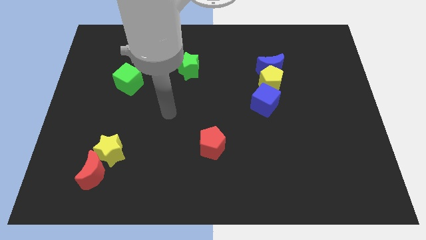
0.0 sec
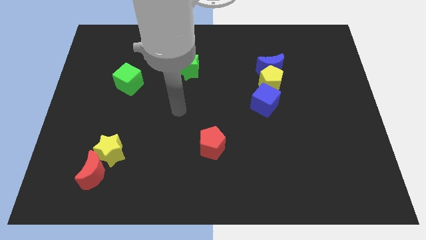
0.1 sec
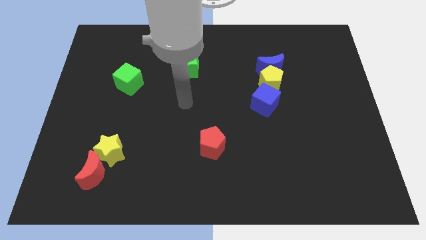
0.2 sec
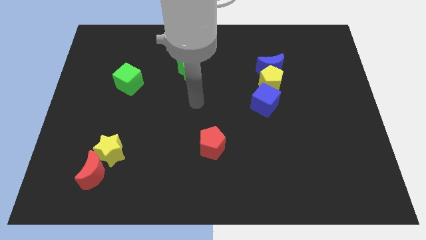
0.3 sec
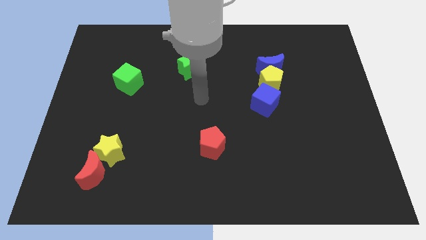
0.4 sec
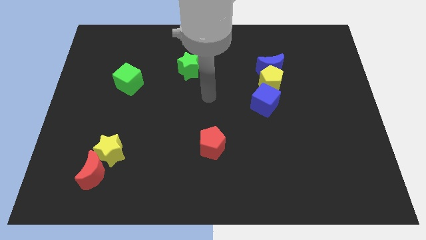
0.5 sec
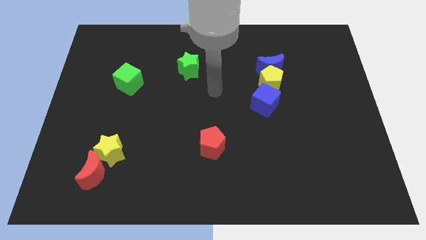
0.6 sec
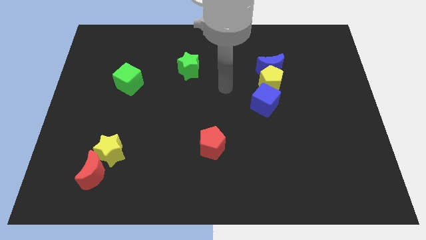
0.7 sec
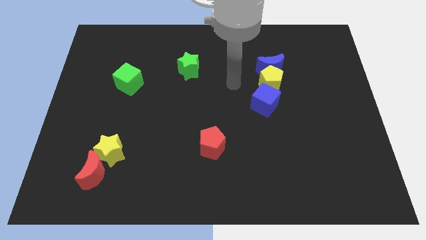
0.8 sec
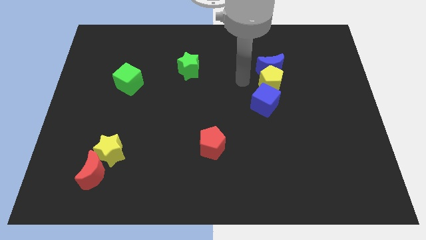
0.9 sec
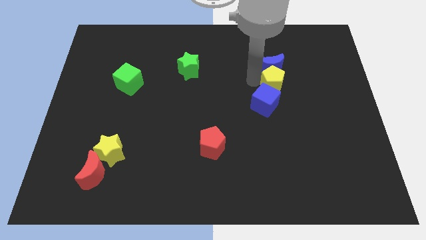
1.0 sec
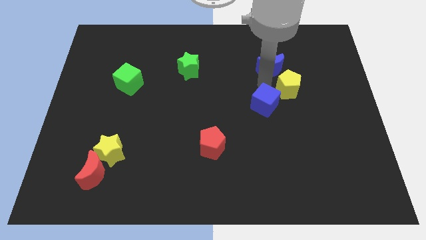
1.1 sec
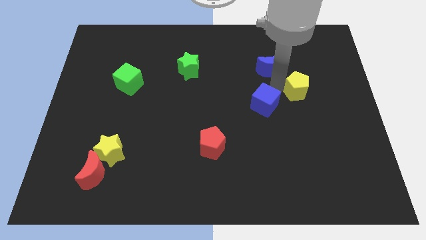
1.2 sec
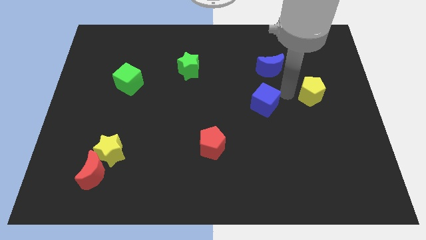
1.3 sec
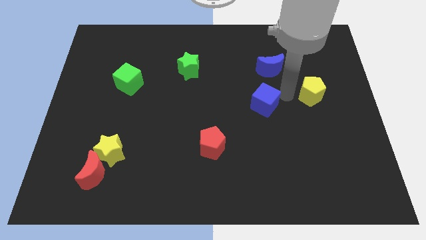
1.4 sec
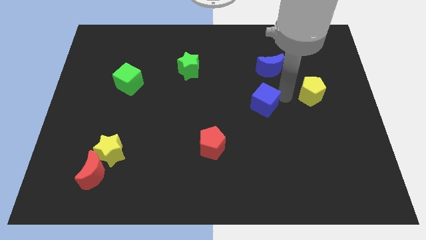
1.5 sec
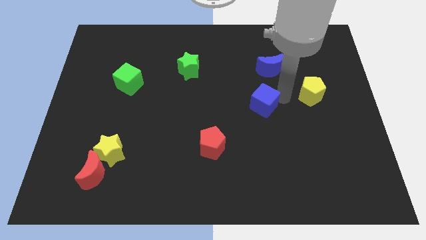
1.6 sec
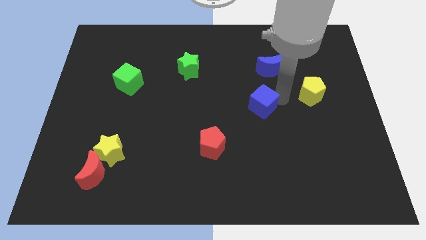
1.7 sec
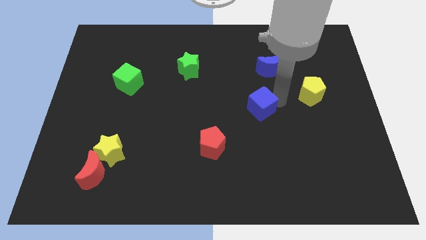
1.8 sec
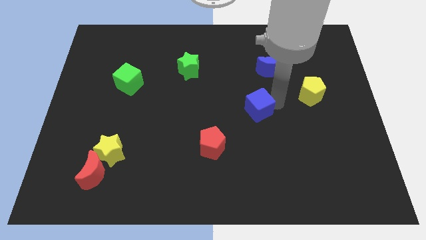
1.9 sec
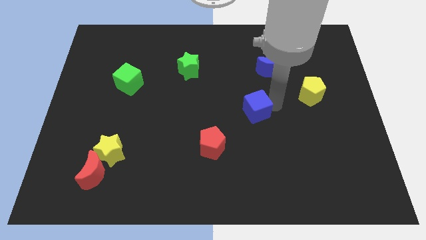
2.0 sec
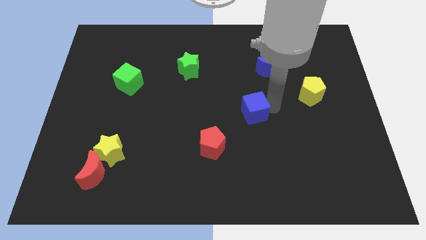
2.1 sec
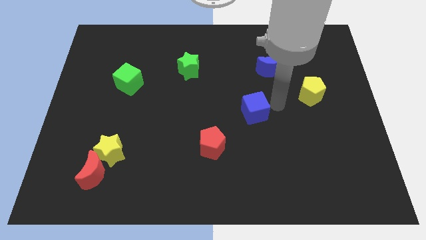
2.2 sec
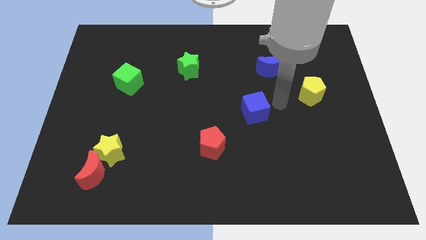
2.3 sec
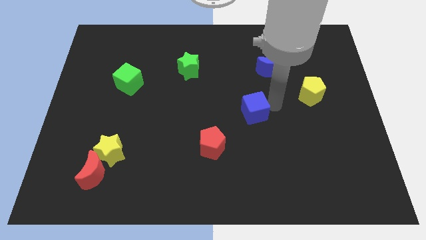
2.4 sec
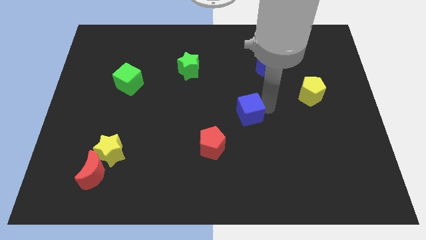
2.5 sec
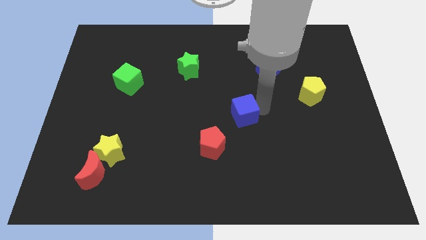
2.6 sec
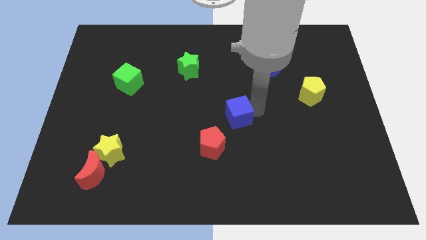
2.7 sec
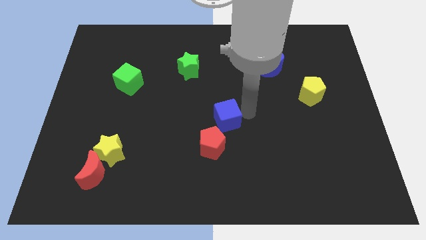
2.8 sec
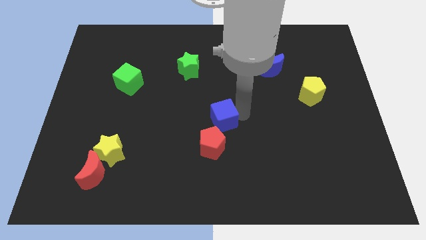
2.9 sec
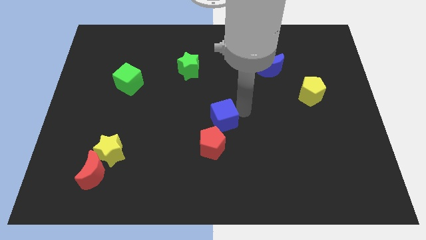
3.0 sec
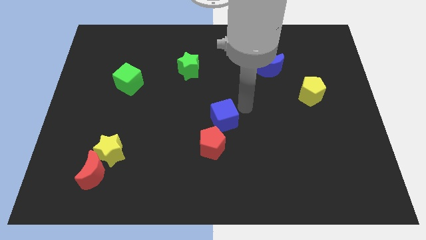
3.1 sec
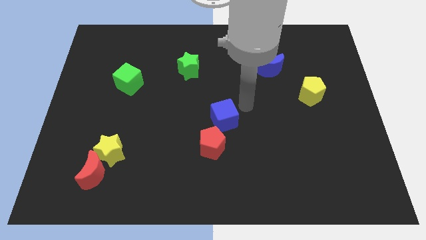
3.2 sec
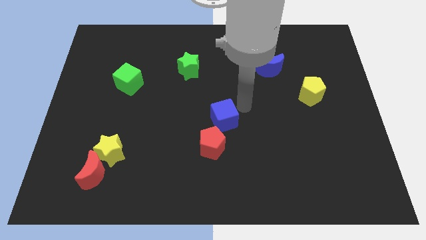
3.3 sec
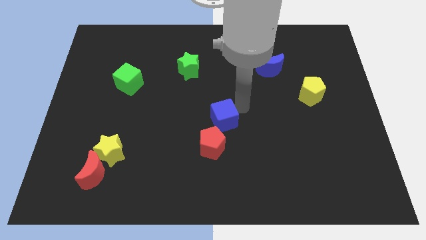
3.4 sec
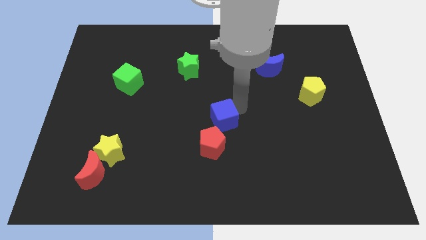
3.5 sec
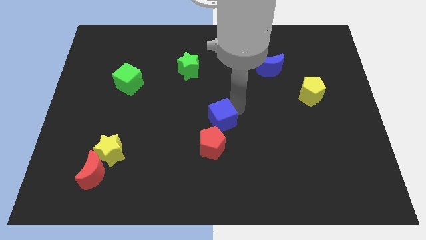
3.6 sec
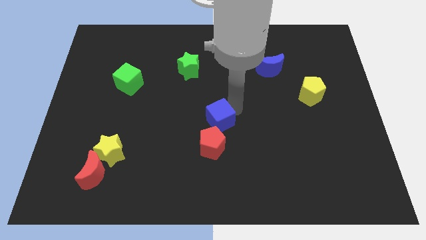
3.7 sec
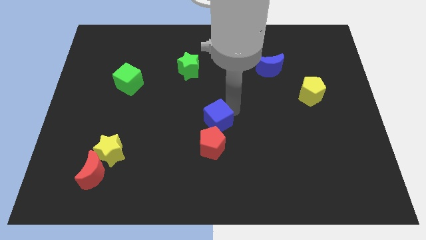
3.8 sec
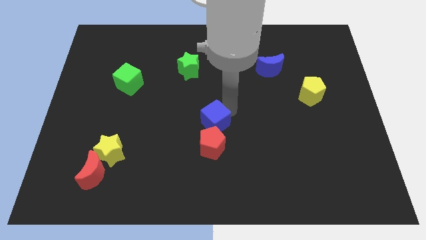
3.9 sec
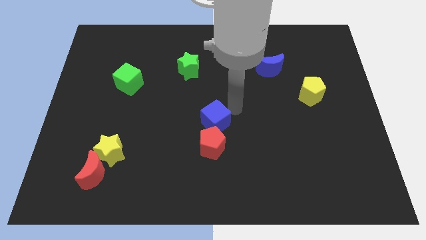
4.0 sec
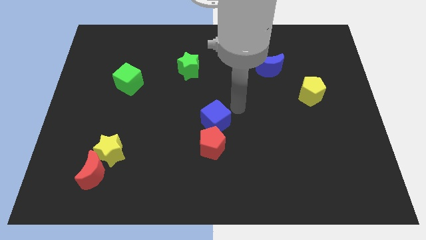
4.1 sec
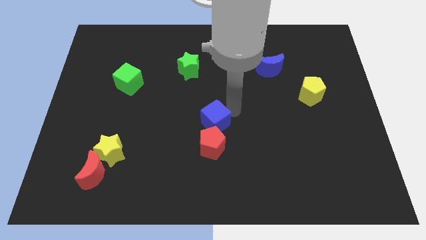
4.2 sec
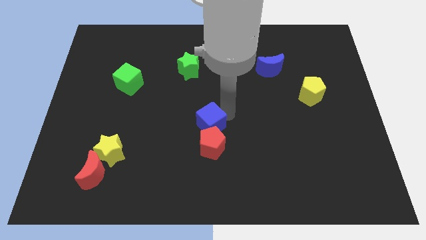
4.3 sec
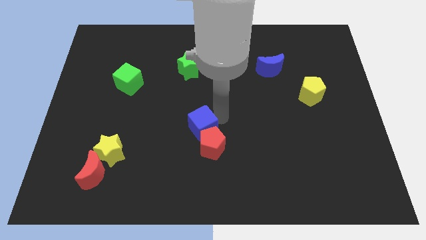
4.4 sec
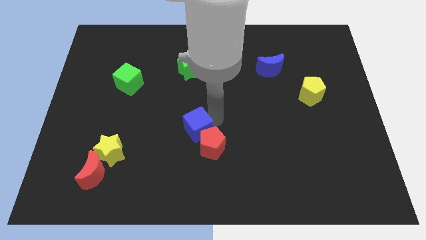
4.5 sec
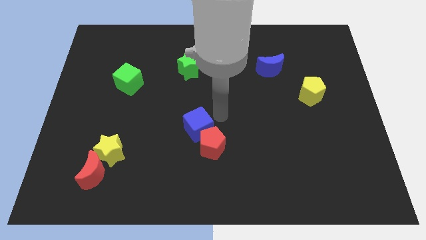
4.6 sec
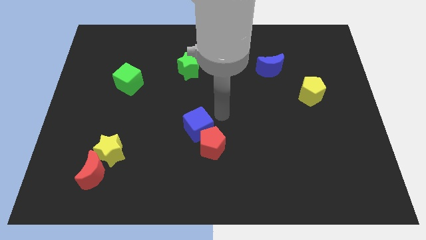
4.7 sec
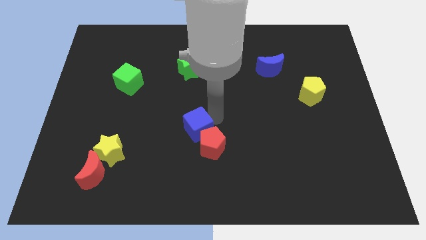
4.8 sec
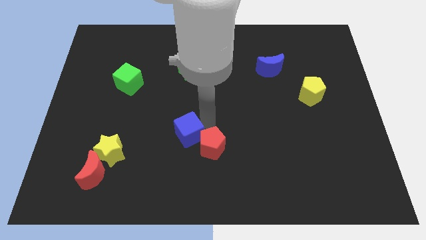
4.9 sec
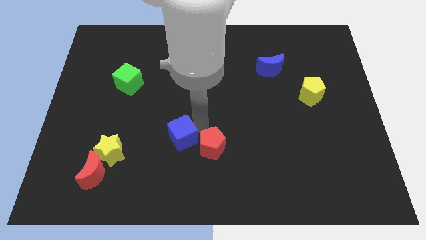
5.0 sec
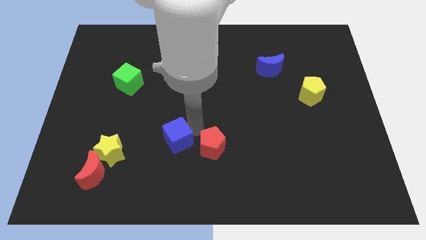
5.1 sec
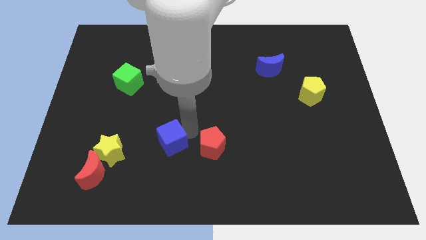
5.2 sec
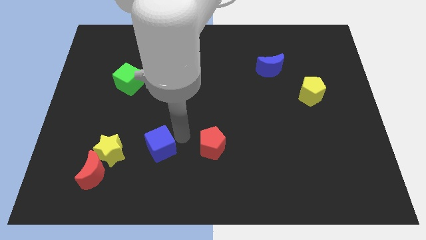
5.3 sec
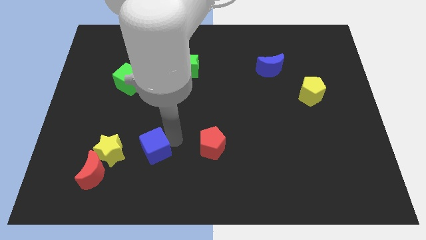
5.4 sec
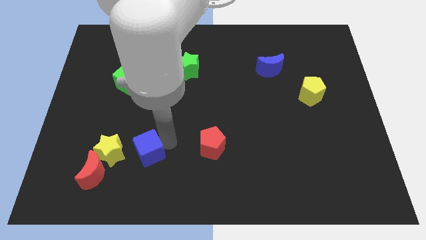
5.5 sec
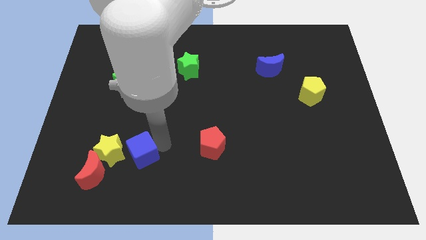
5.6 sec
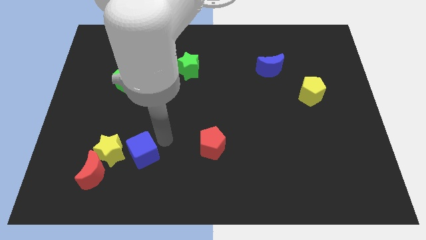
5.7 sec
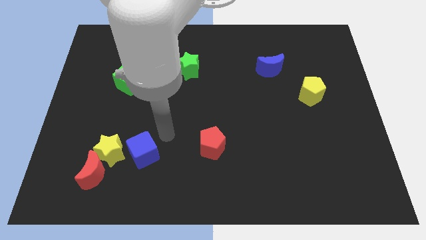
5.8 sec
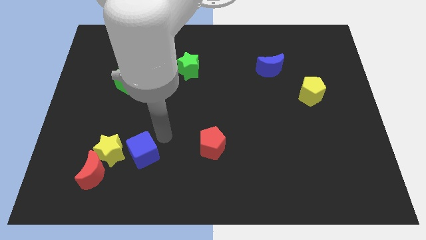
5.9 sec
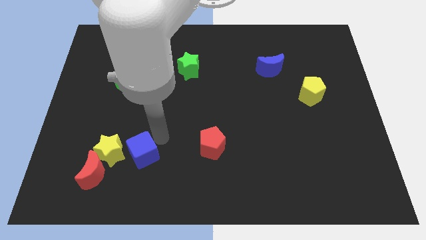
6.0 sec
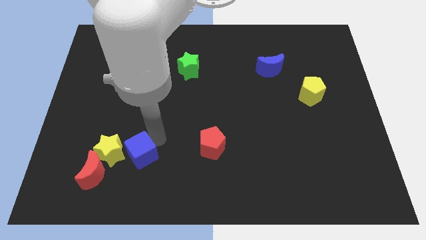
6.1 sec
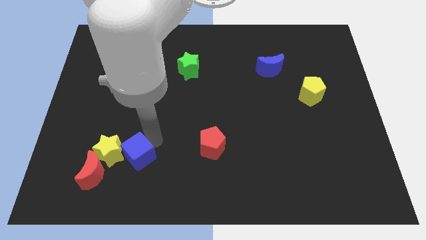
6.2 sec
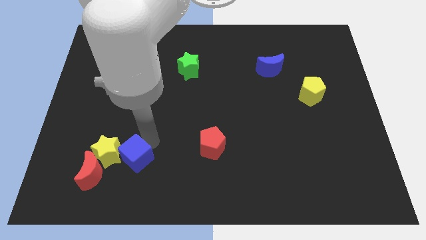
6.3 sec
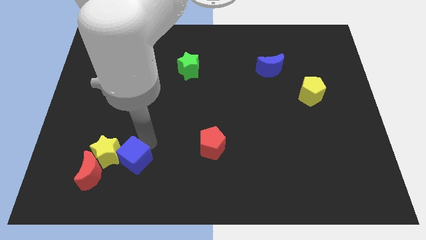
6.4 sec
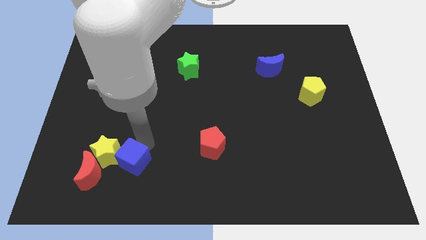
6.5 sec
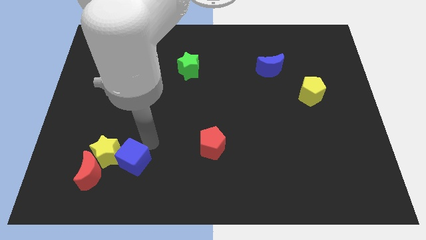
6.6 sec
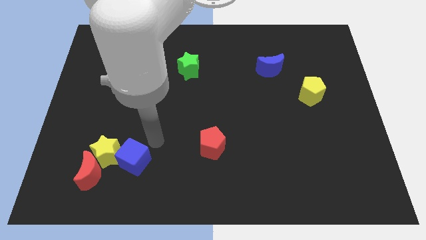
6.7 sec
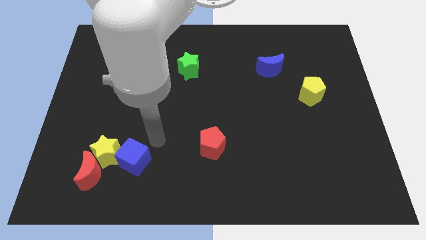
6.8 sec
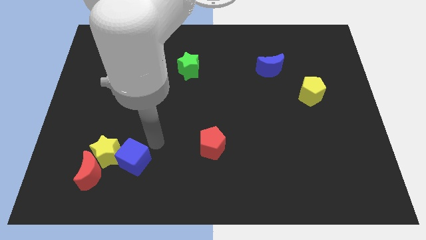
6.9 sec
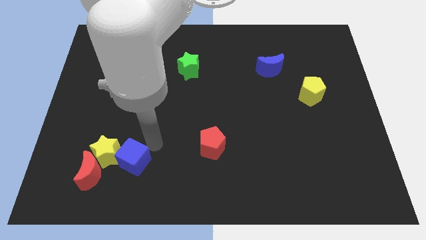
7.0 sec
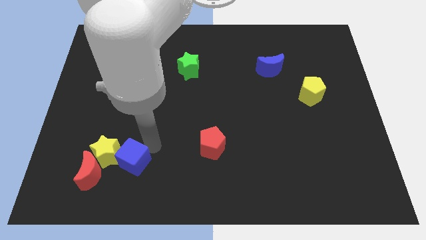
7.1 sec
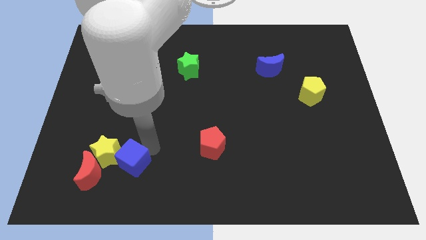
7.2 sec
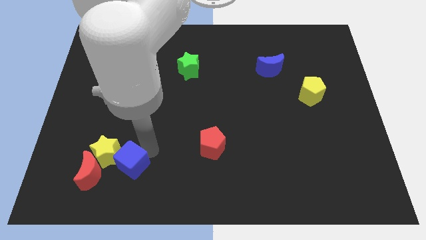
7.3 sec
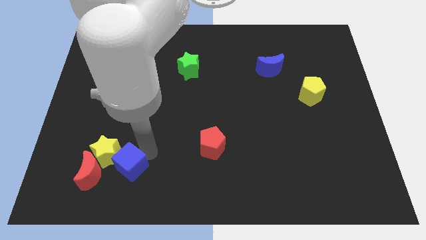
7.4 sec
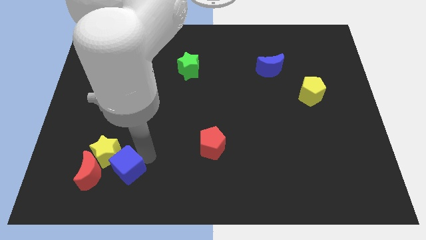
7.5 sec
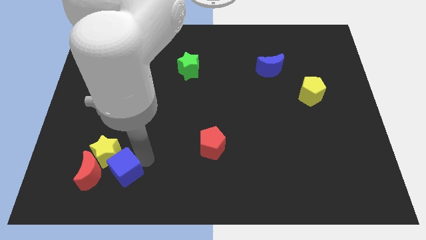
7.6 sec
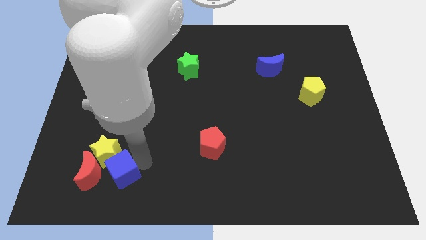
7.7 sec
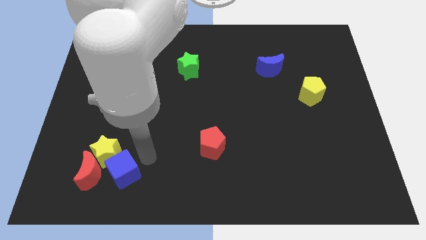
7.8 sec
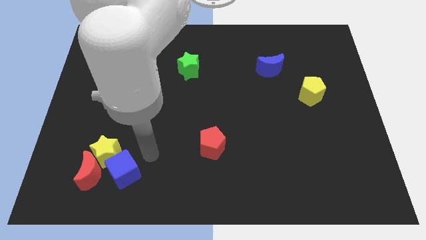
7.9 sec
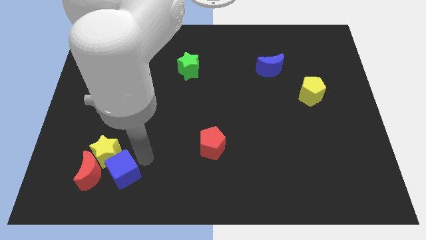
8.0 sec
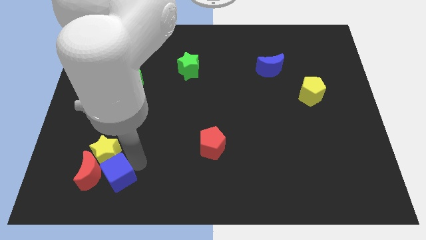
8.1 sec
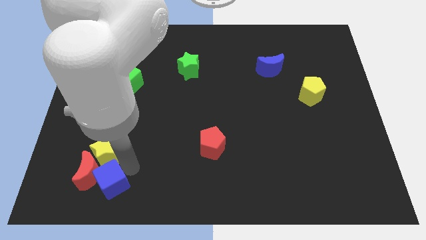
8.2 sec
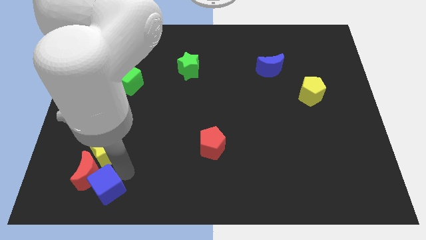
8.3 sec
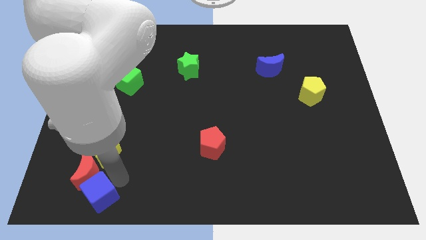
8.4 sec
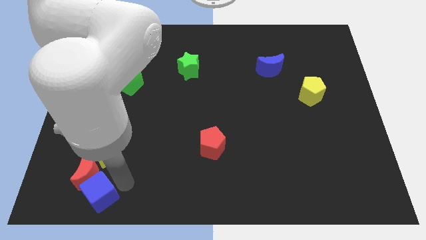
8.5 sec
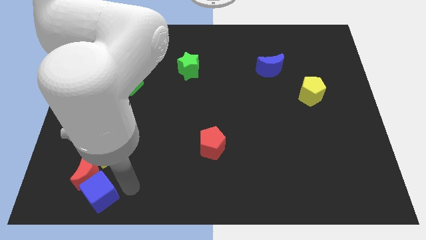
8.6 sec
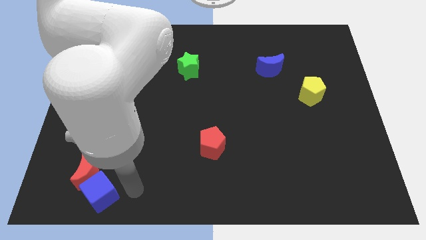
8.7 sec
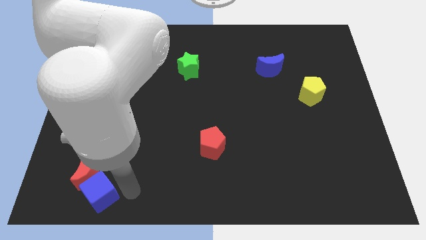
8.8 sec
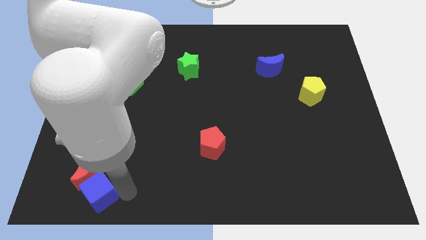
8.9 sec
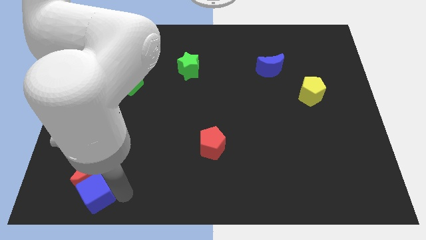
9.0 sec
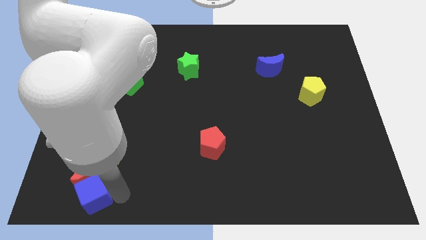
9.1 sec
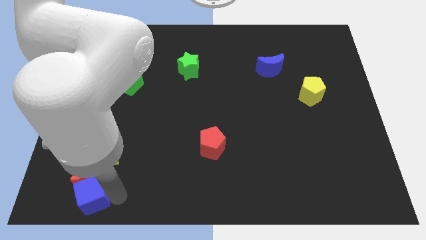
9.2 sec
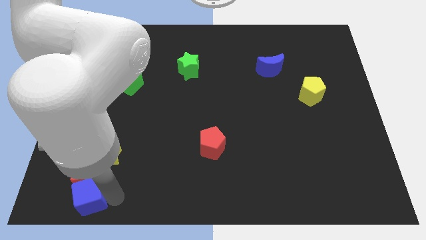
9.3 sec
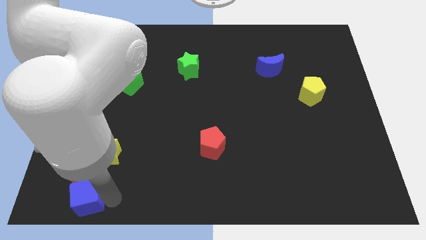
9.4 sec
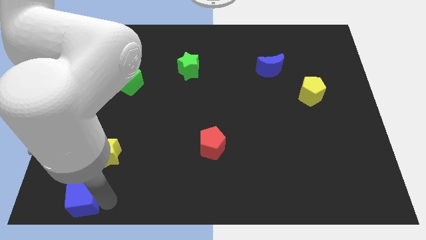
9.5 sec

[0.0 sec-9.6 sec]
push the blue cube to the bottom left
